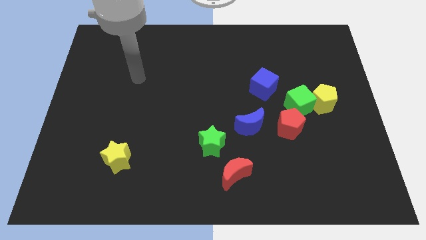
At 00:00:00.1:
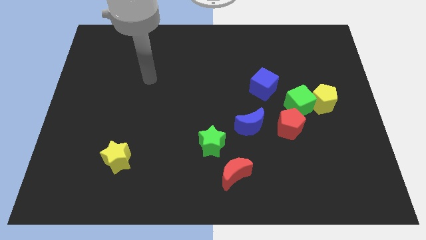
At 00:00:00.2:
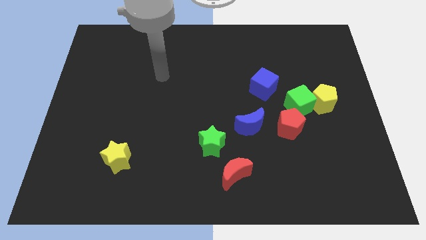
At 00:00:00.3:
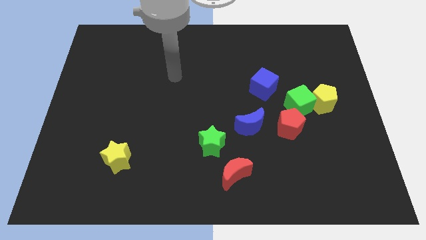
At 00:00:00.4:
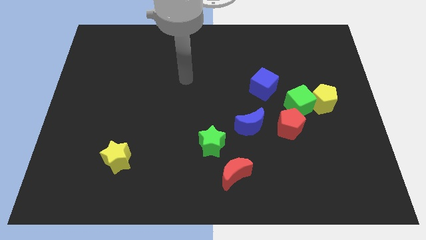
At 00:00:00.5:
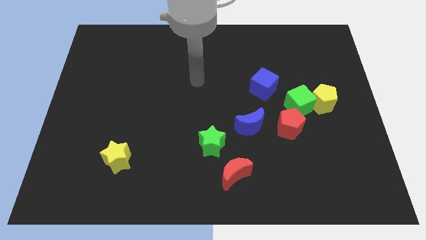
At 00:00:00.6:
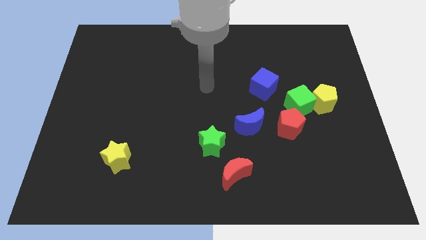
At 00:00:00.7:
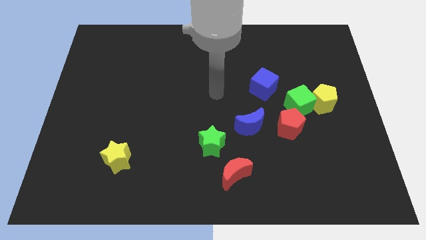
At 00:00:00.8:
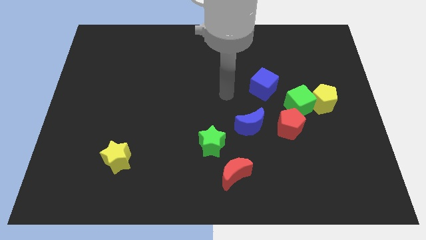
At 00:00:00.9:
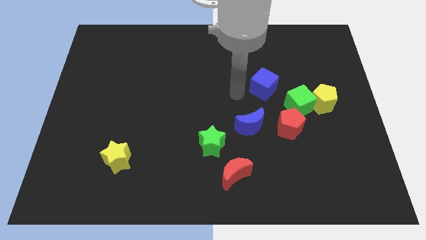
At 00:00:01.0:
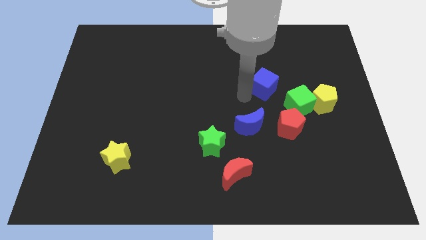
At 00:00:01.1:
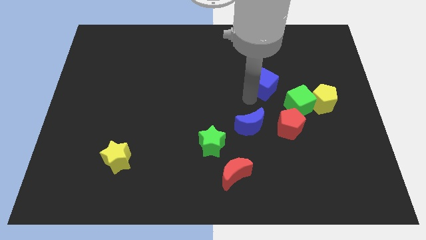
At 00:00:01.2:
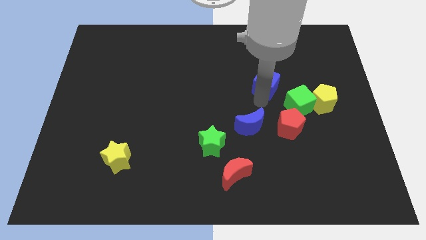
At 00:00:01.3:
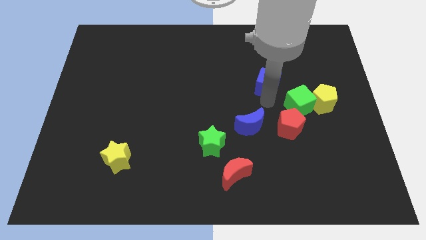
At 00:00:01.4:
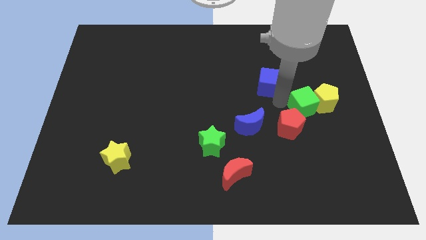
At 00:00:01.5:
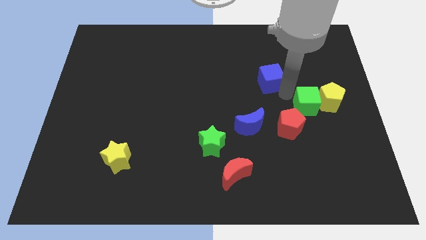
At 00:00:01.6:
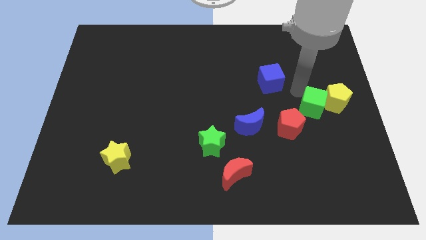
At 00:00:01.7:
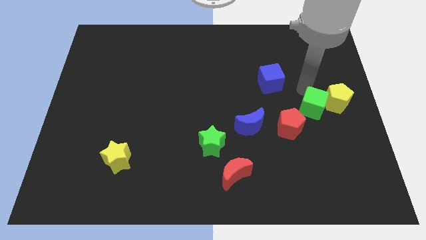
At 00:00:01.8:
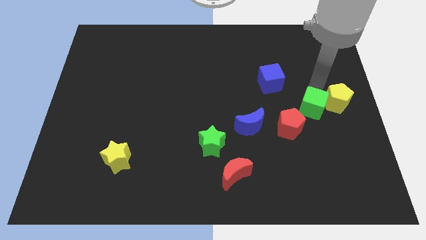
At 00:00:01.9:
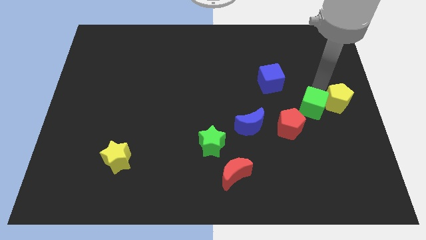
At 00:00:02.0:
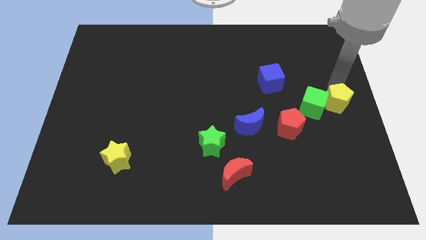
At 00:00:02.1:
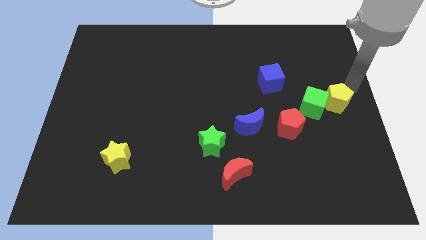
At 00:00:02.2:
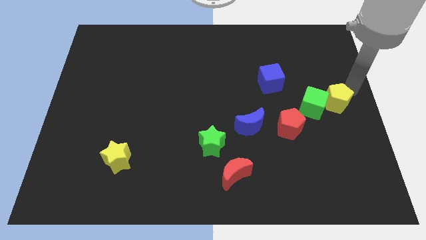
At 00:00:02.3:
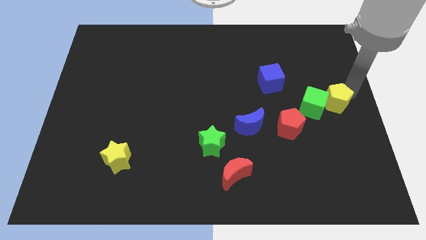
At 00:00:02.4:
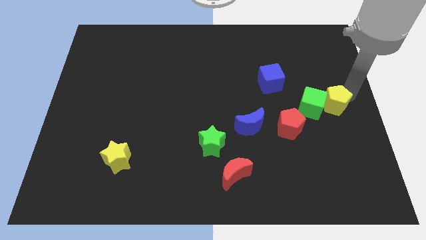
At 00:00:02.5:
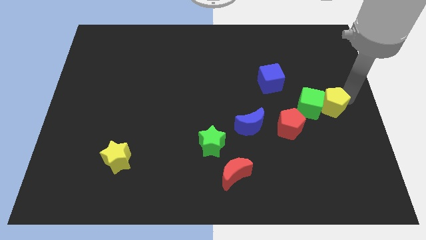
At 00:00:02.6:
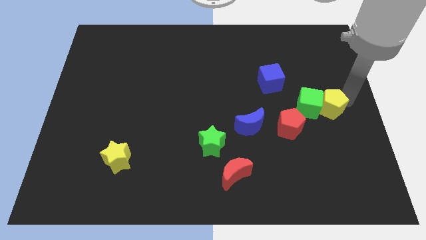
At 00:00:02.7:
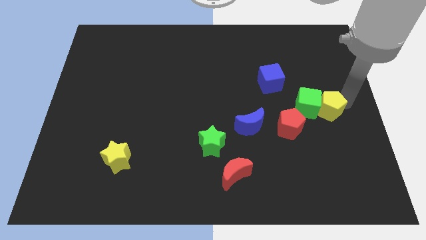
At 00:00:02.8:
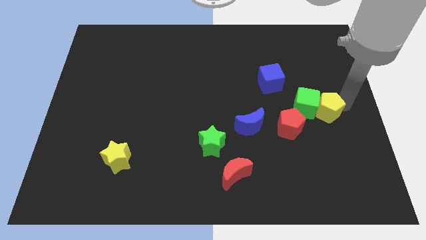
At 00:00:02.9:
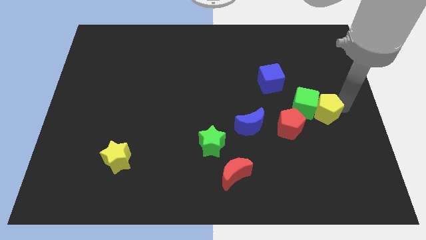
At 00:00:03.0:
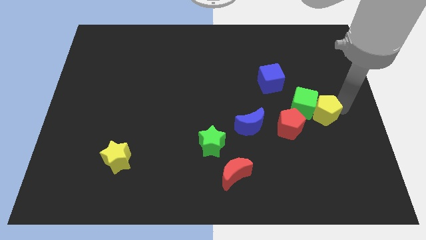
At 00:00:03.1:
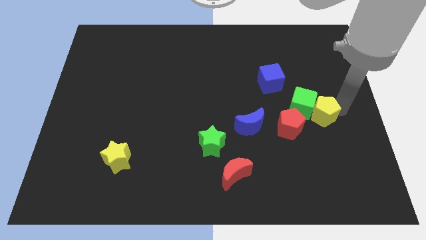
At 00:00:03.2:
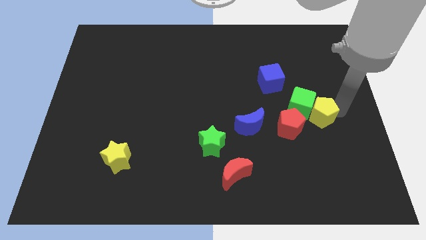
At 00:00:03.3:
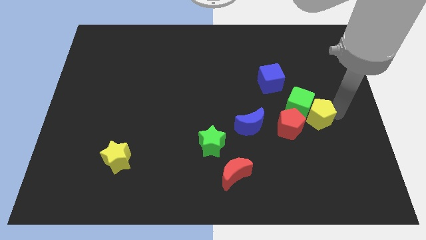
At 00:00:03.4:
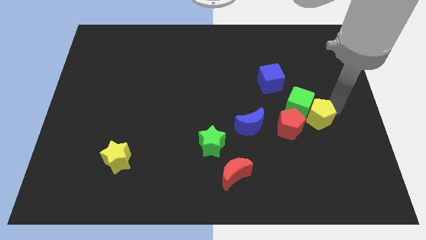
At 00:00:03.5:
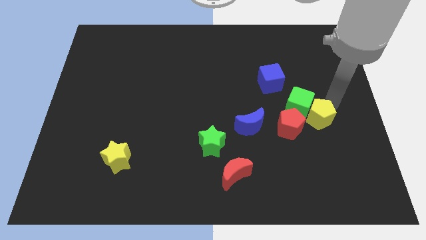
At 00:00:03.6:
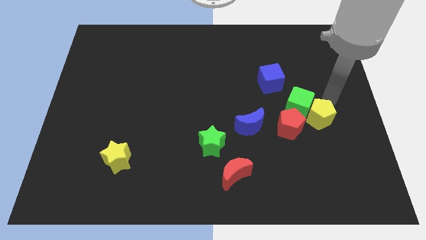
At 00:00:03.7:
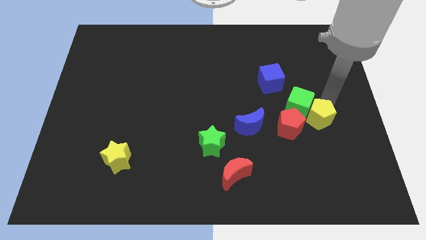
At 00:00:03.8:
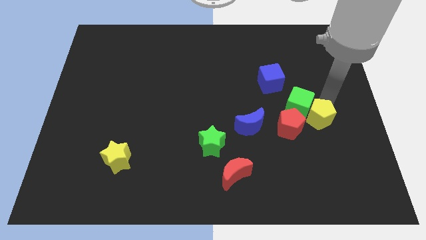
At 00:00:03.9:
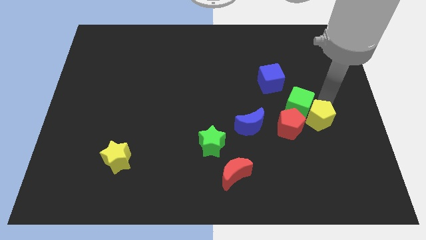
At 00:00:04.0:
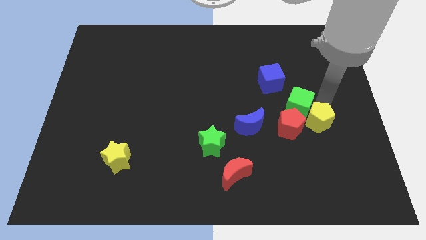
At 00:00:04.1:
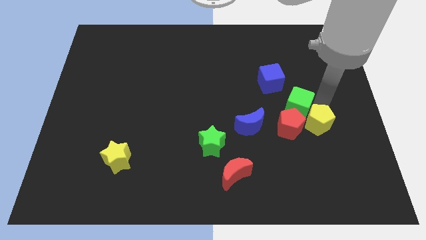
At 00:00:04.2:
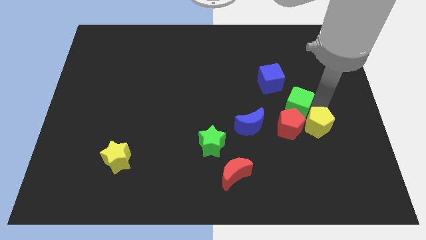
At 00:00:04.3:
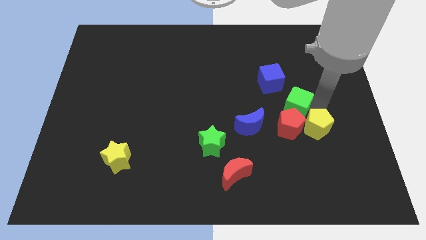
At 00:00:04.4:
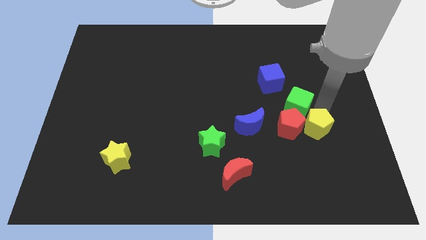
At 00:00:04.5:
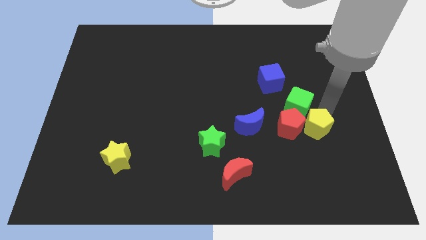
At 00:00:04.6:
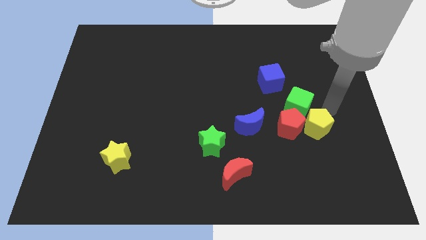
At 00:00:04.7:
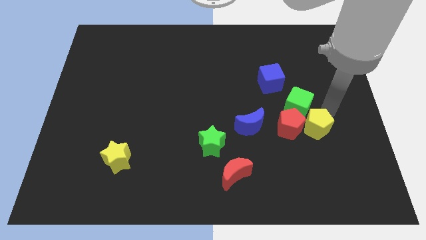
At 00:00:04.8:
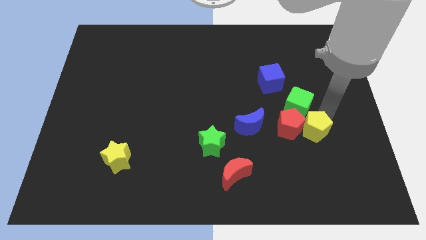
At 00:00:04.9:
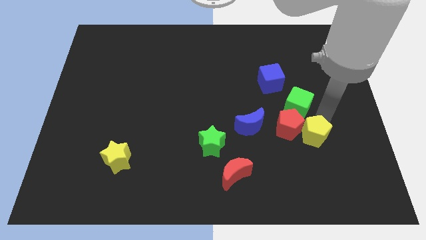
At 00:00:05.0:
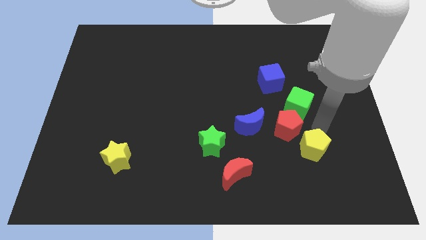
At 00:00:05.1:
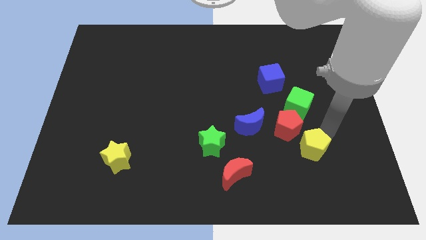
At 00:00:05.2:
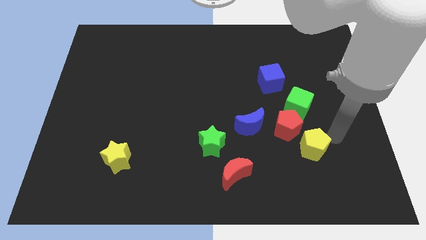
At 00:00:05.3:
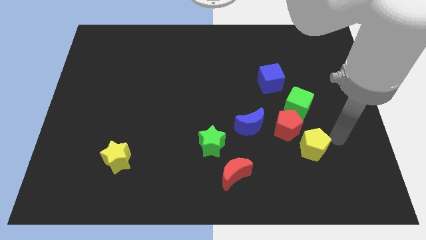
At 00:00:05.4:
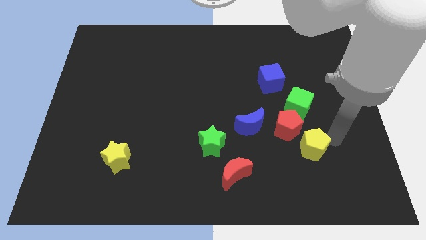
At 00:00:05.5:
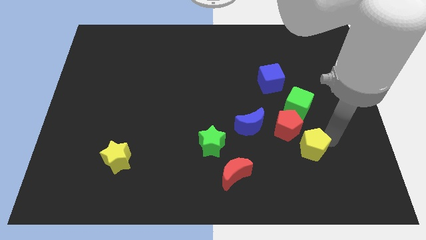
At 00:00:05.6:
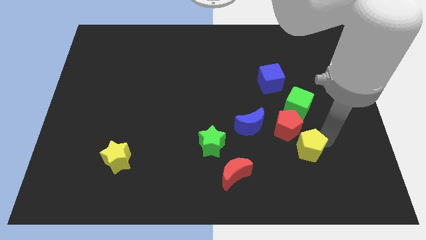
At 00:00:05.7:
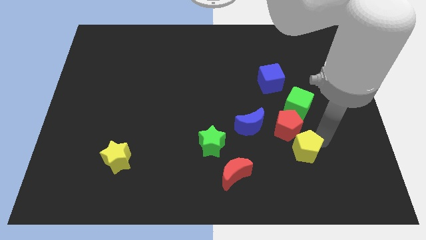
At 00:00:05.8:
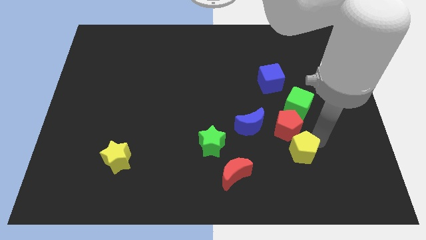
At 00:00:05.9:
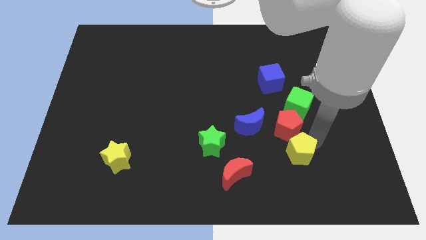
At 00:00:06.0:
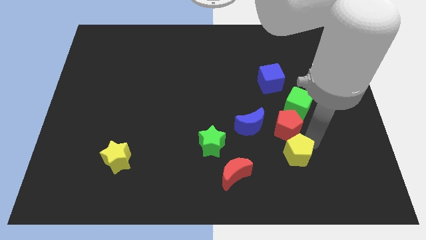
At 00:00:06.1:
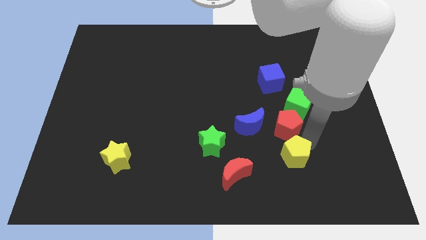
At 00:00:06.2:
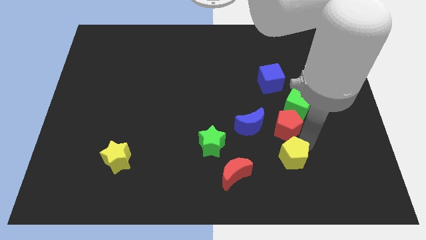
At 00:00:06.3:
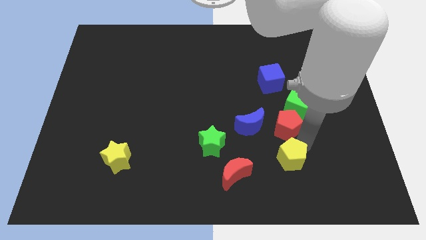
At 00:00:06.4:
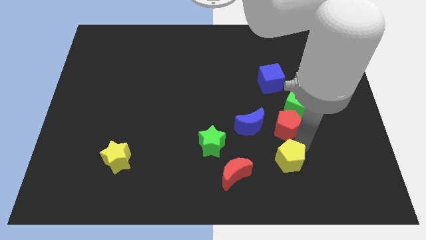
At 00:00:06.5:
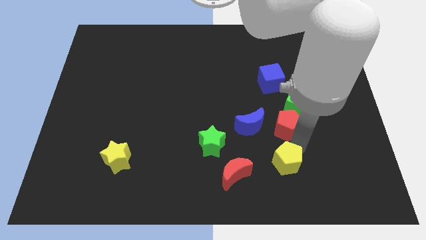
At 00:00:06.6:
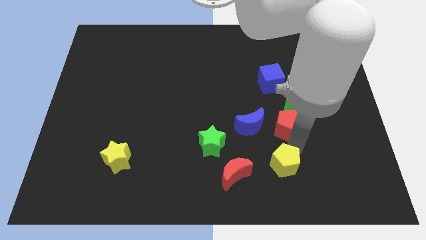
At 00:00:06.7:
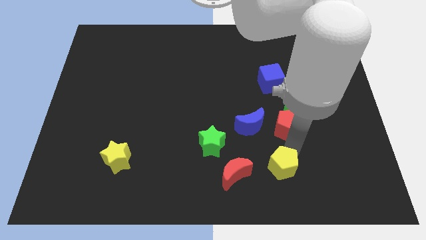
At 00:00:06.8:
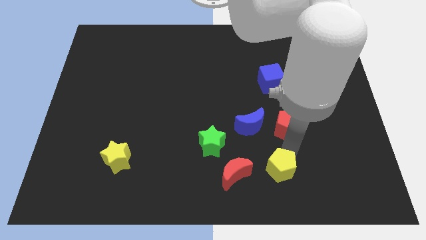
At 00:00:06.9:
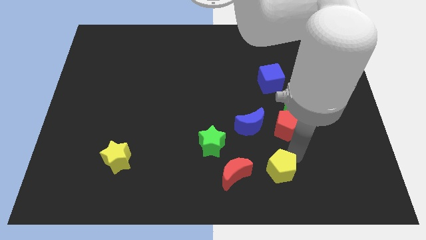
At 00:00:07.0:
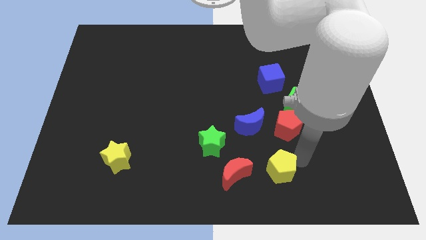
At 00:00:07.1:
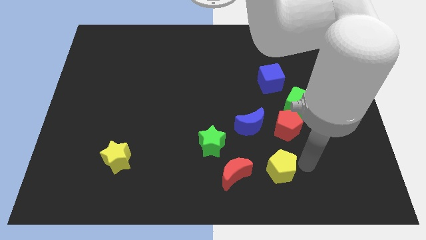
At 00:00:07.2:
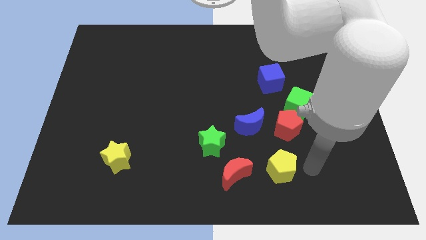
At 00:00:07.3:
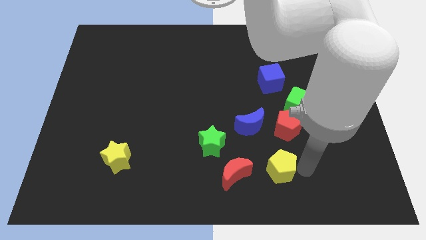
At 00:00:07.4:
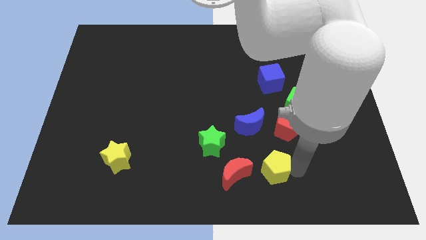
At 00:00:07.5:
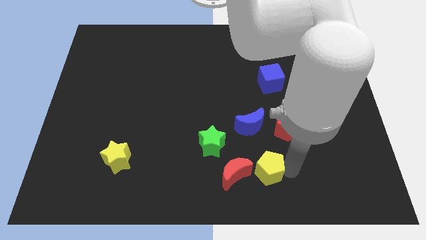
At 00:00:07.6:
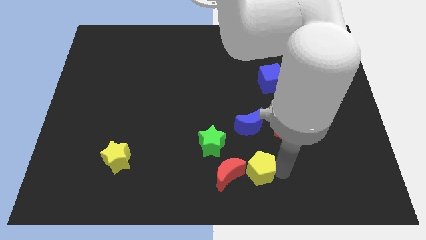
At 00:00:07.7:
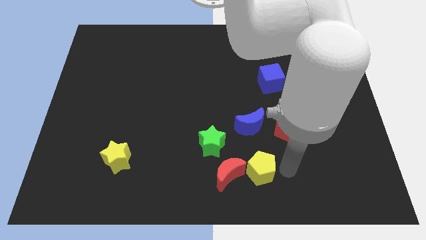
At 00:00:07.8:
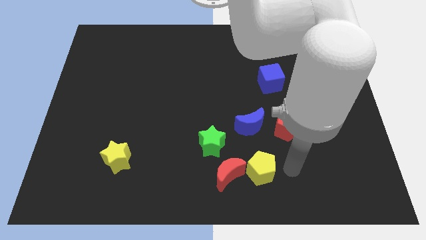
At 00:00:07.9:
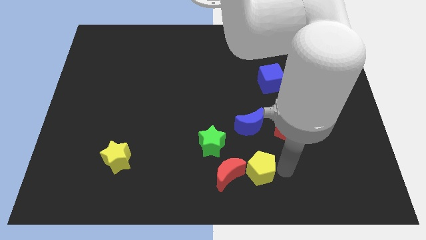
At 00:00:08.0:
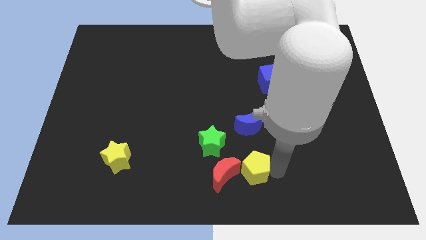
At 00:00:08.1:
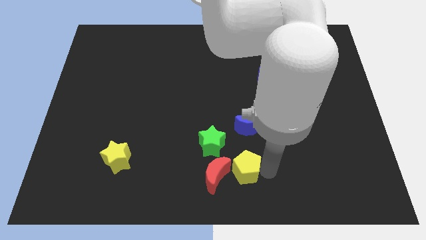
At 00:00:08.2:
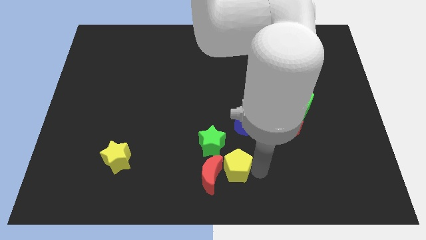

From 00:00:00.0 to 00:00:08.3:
slide the yellow pentagon close to the red moon
